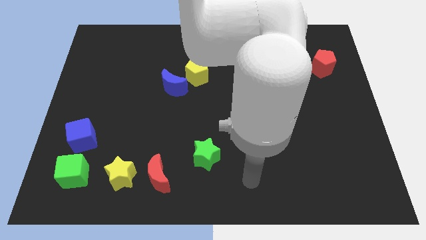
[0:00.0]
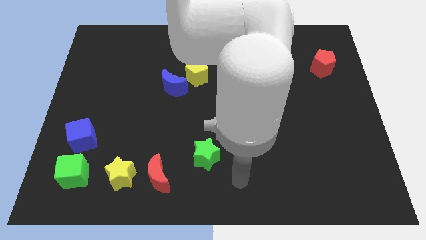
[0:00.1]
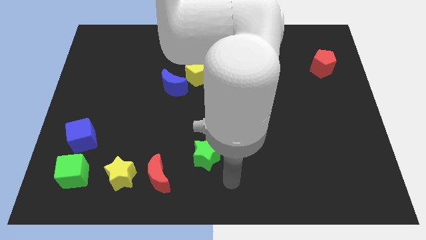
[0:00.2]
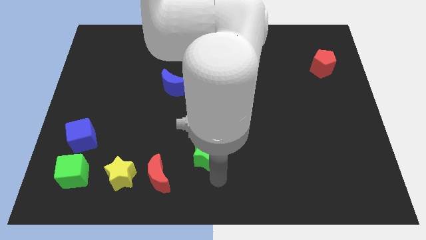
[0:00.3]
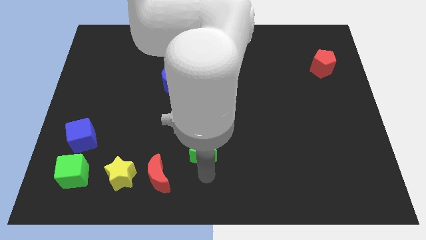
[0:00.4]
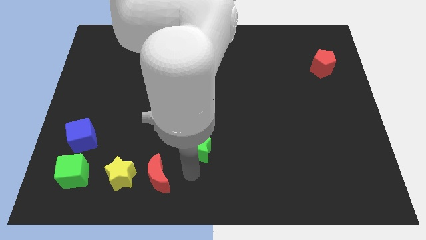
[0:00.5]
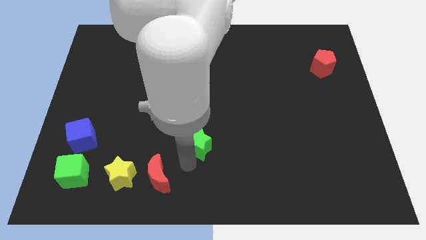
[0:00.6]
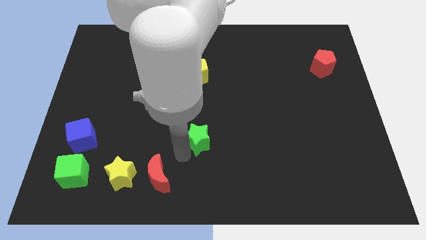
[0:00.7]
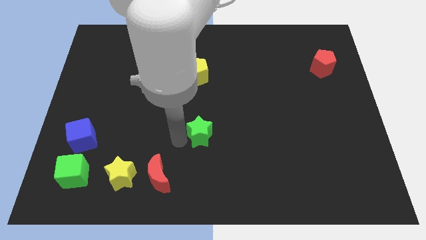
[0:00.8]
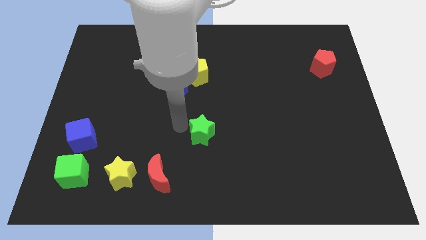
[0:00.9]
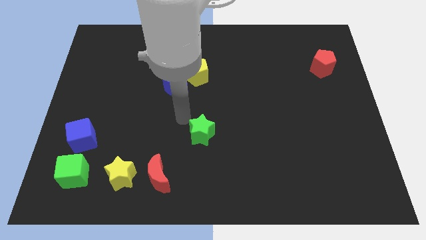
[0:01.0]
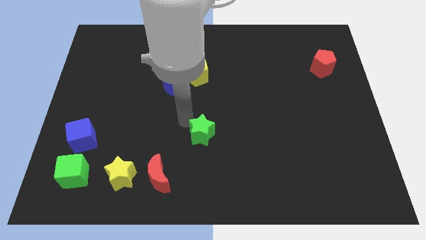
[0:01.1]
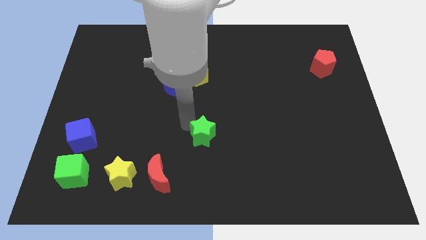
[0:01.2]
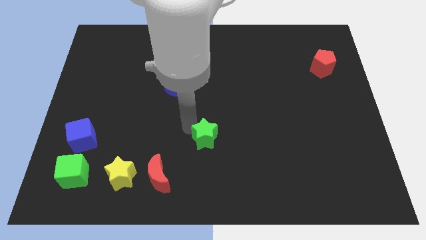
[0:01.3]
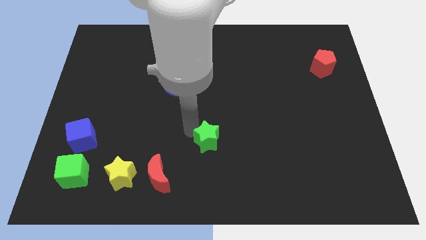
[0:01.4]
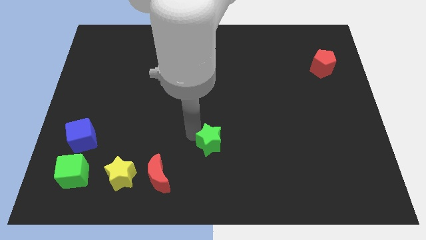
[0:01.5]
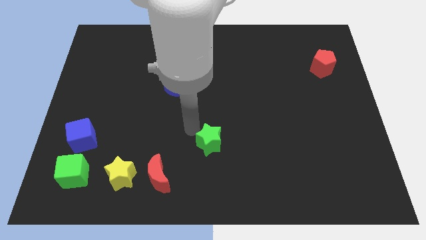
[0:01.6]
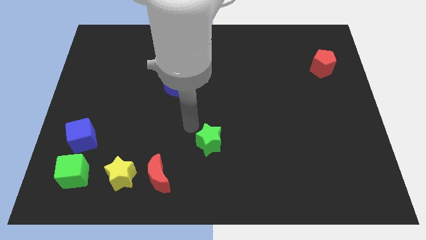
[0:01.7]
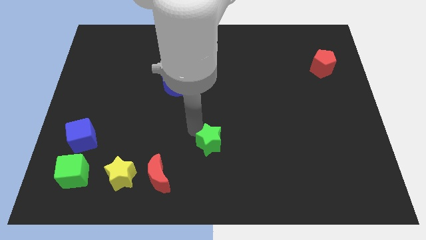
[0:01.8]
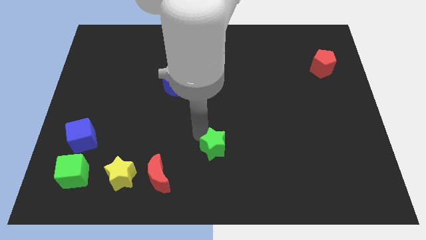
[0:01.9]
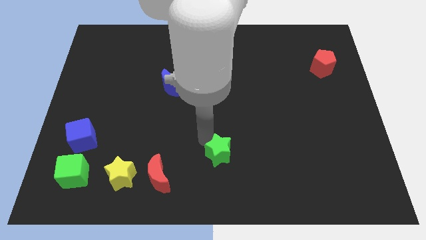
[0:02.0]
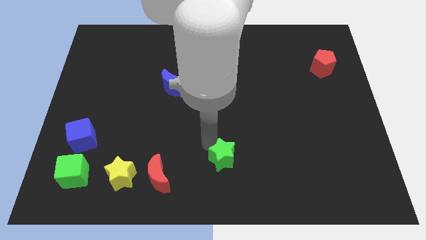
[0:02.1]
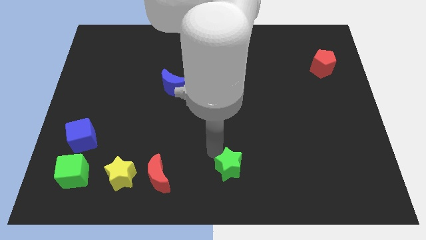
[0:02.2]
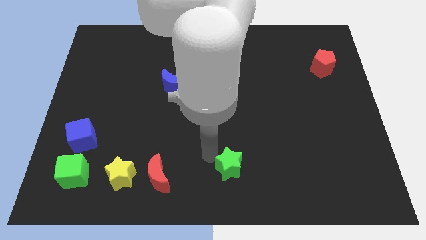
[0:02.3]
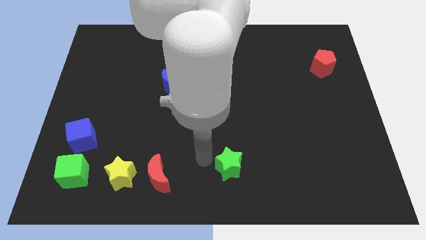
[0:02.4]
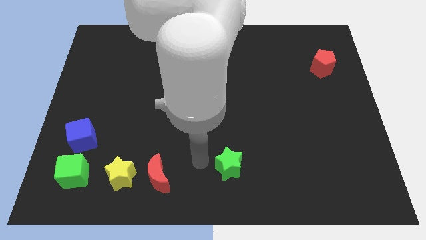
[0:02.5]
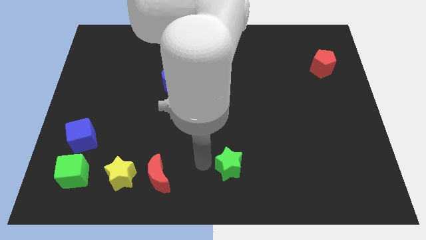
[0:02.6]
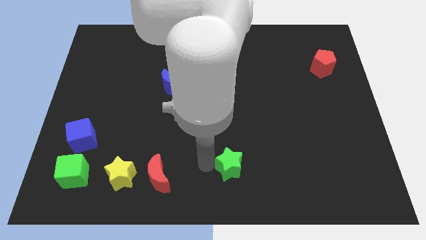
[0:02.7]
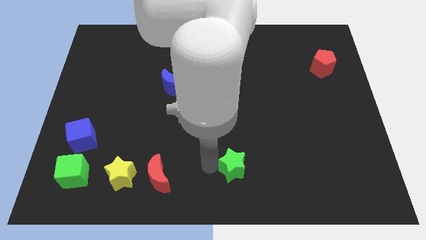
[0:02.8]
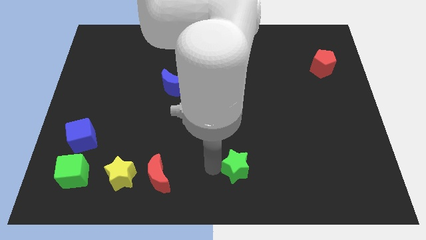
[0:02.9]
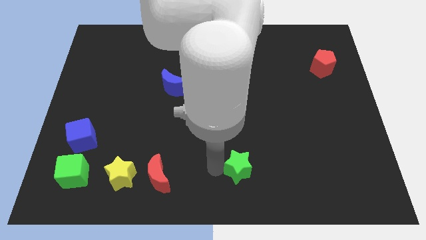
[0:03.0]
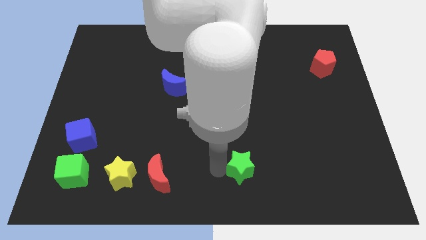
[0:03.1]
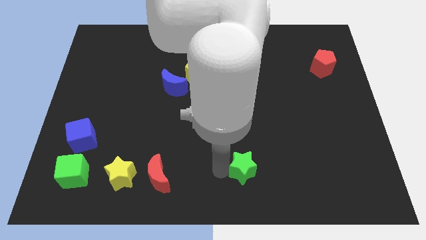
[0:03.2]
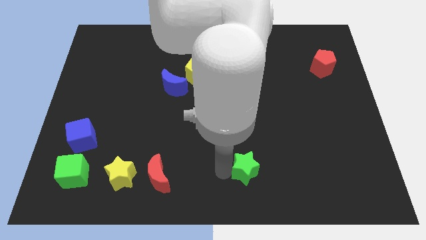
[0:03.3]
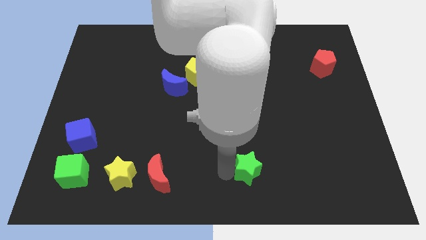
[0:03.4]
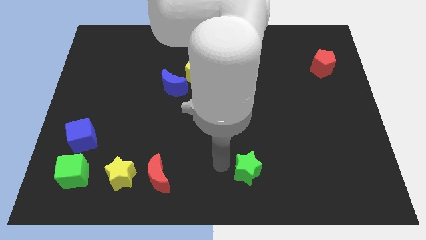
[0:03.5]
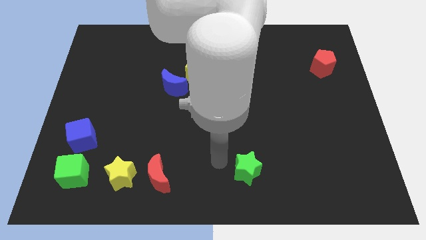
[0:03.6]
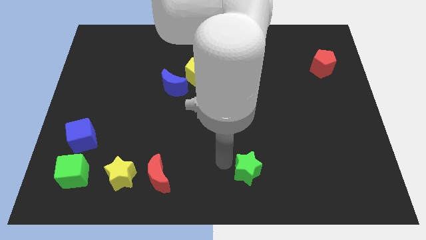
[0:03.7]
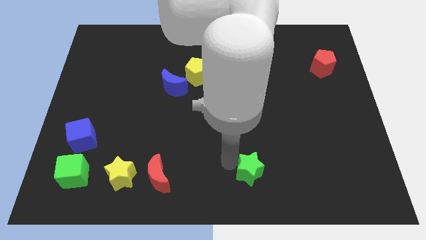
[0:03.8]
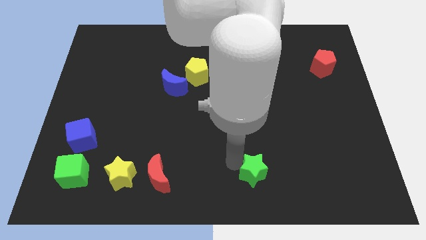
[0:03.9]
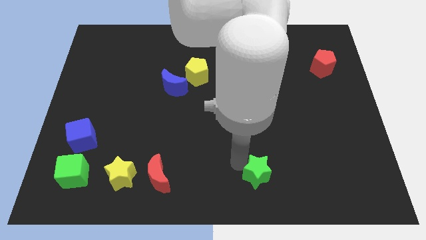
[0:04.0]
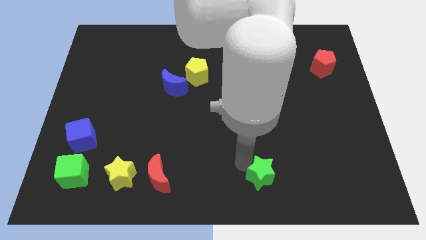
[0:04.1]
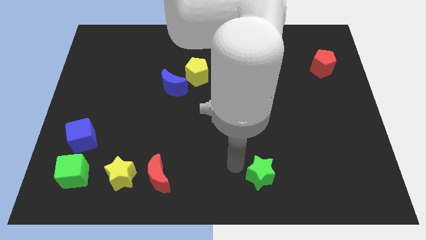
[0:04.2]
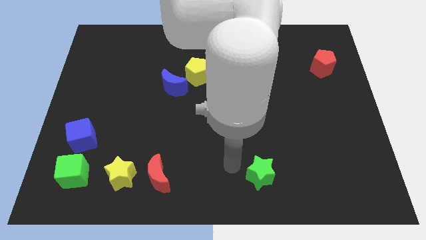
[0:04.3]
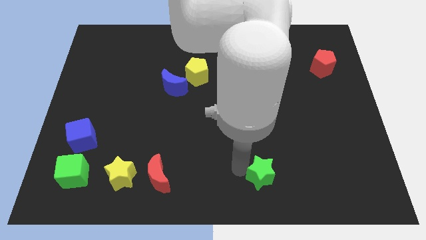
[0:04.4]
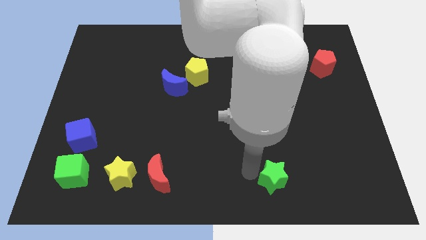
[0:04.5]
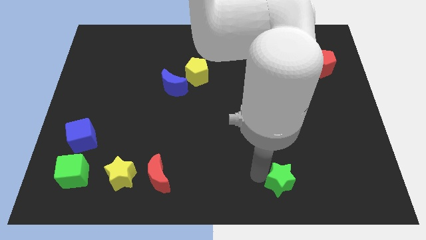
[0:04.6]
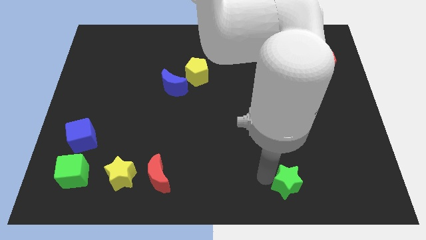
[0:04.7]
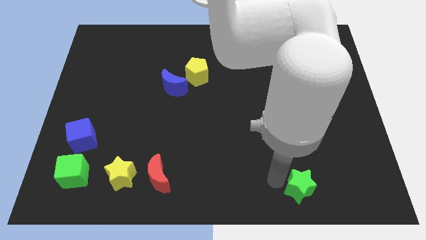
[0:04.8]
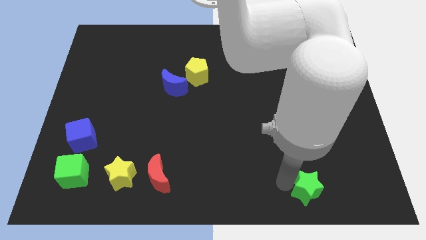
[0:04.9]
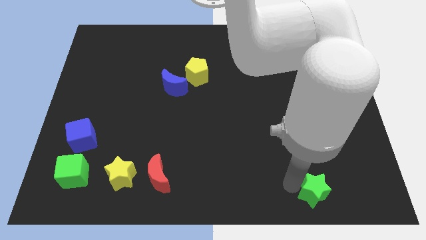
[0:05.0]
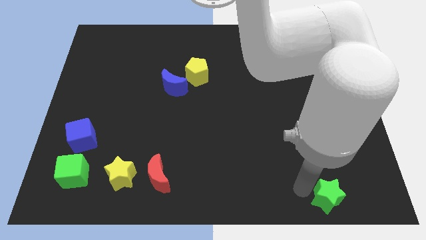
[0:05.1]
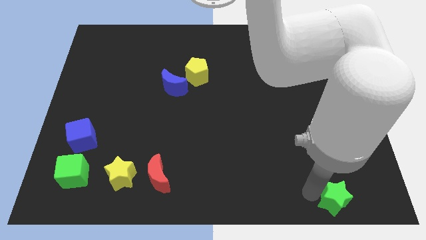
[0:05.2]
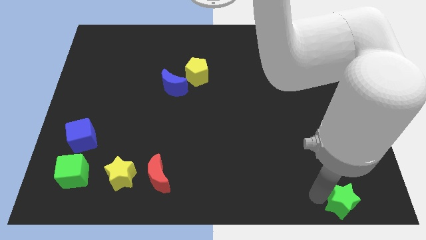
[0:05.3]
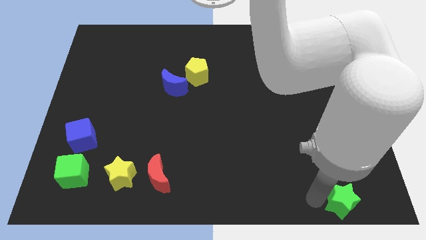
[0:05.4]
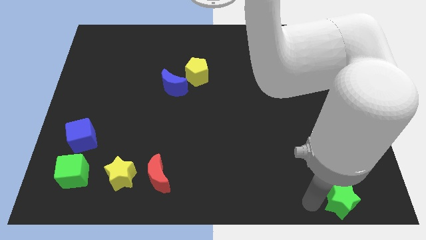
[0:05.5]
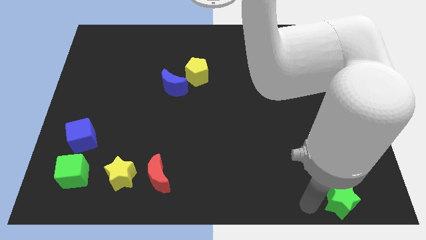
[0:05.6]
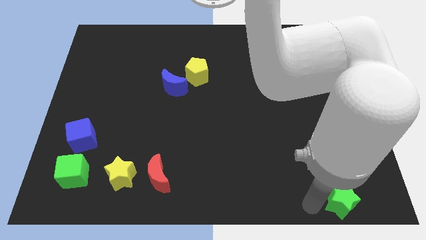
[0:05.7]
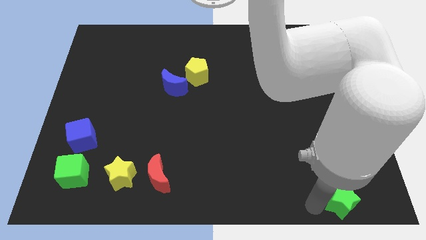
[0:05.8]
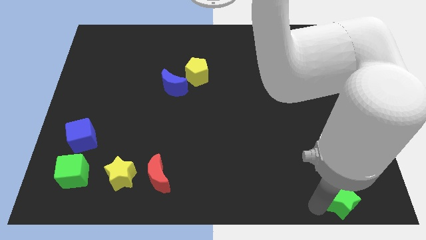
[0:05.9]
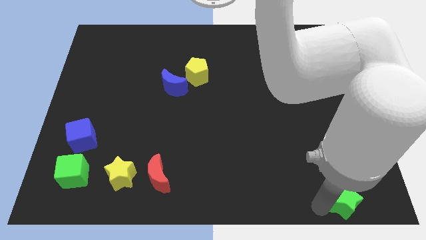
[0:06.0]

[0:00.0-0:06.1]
push the green star to the bottom right
